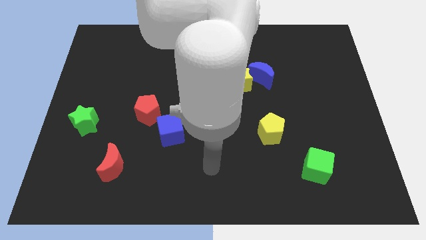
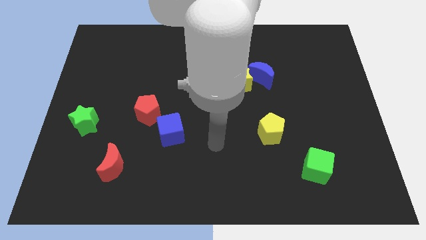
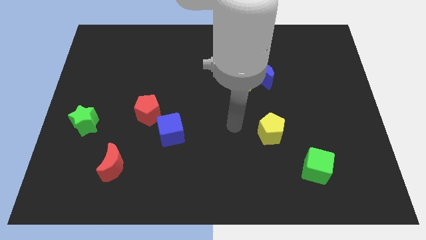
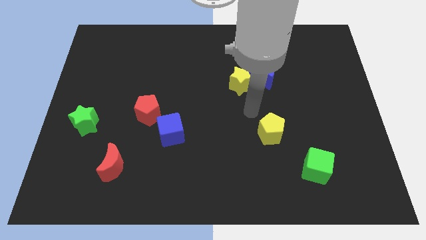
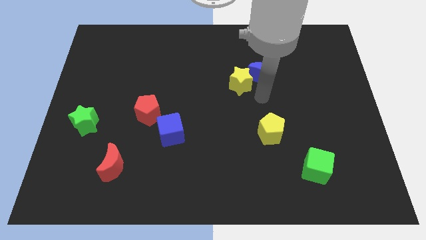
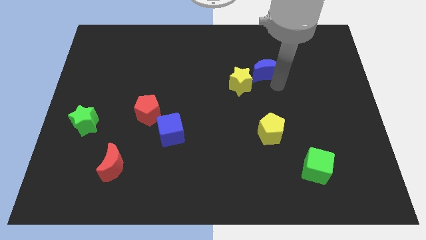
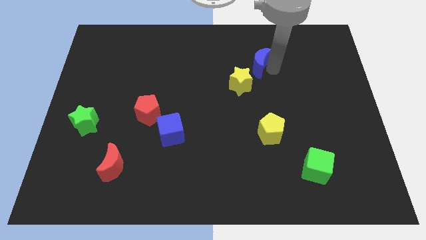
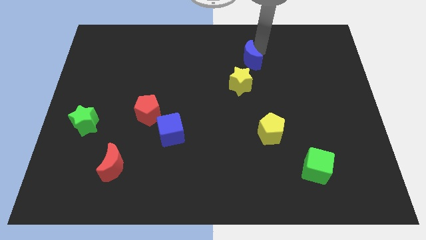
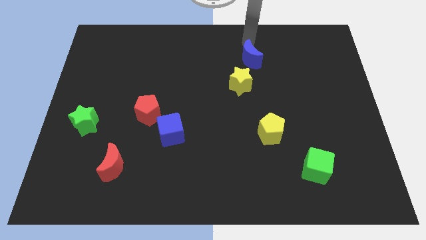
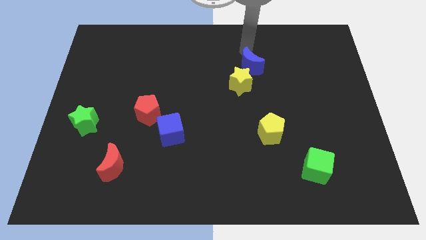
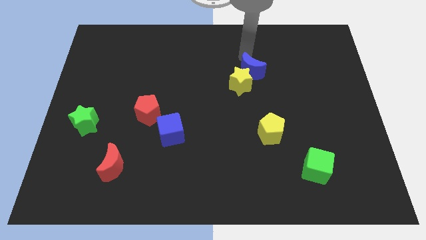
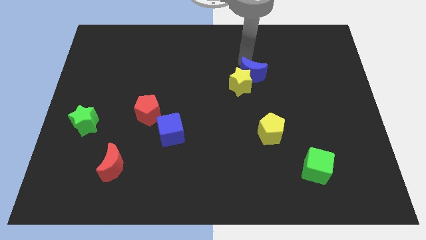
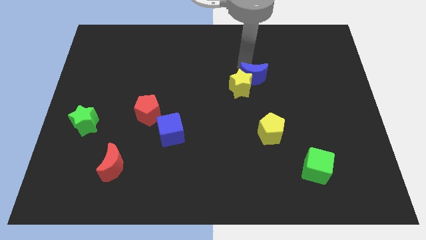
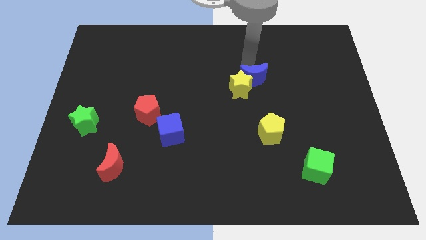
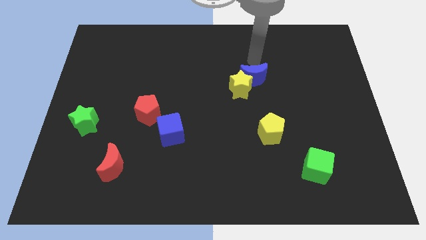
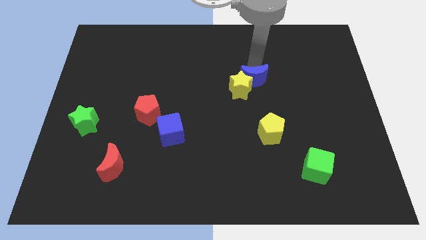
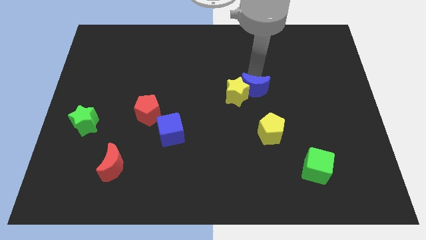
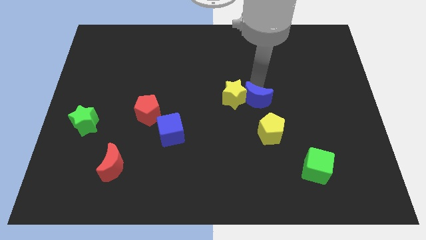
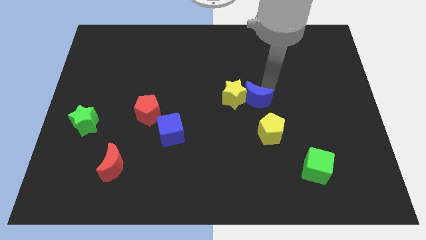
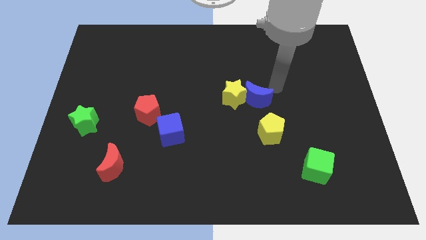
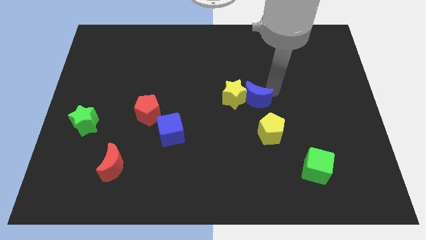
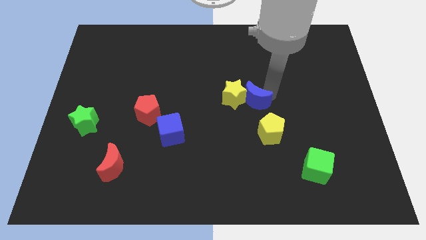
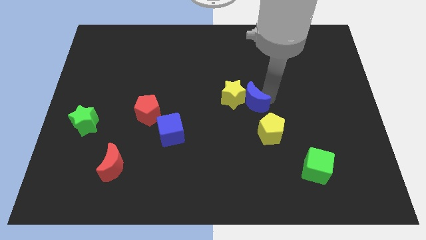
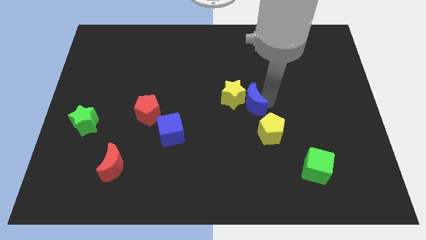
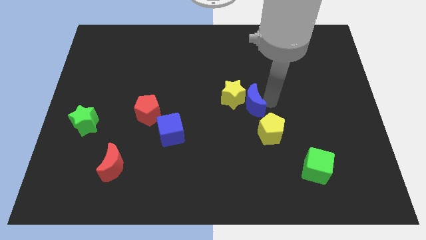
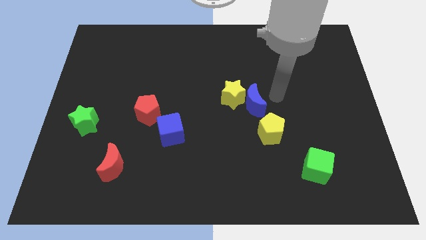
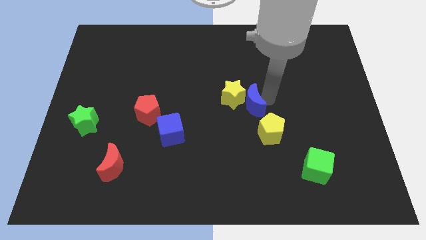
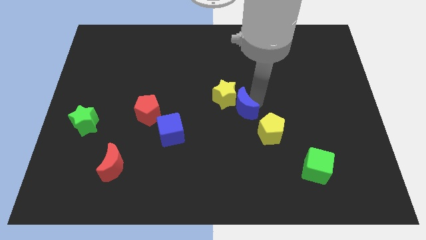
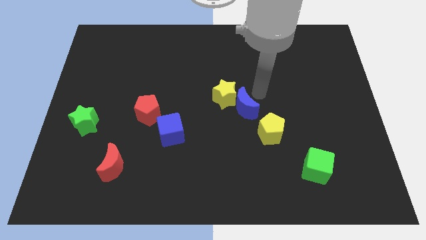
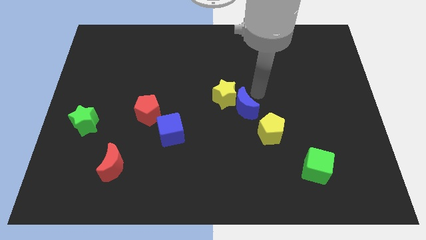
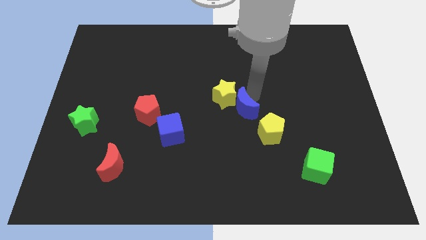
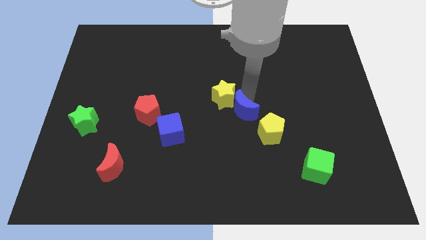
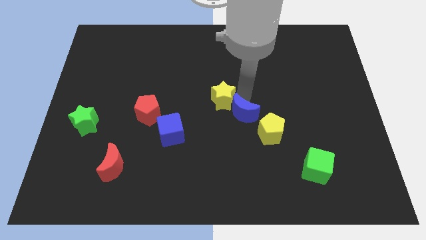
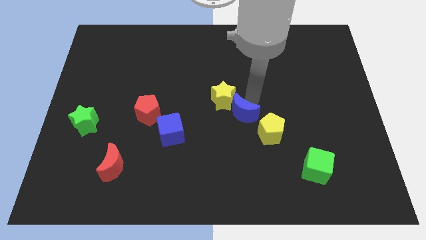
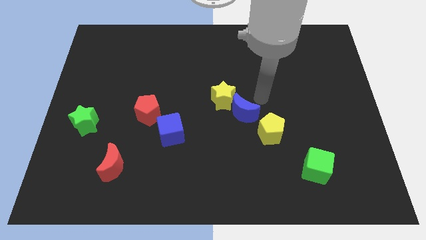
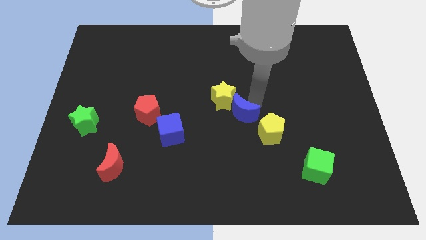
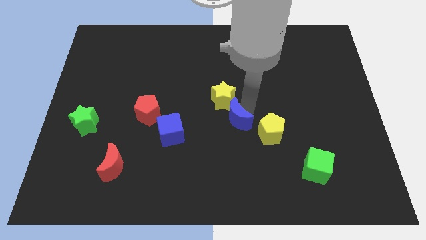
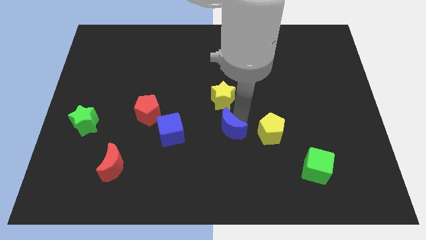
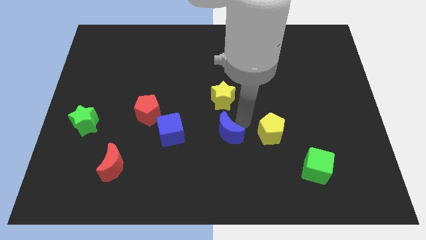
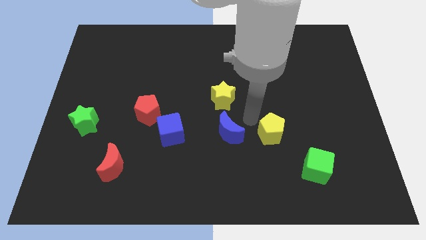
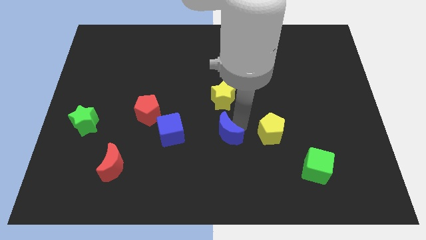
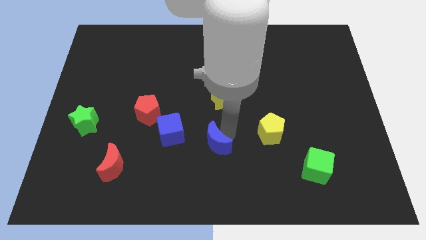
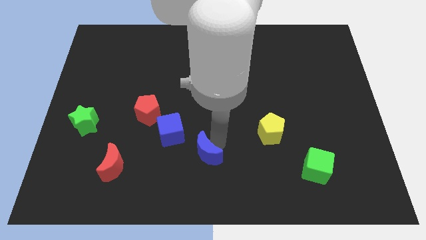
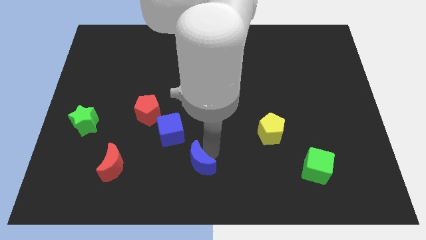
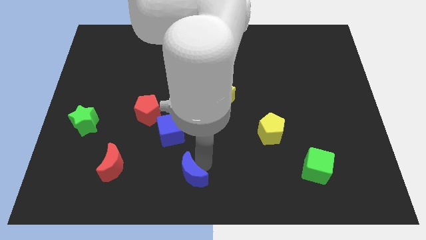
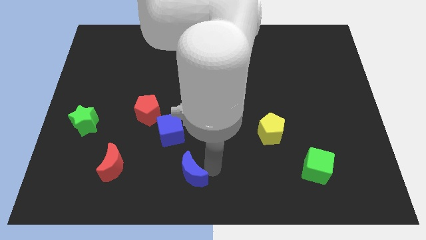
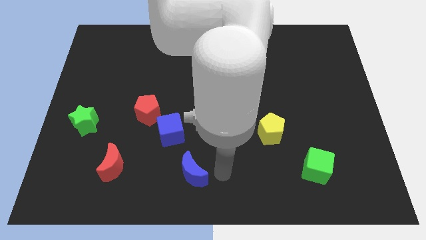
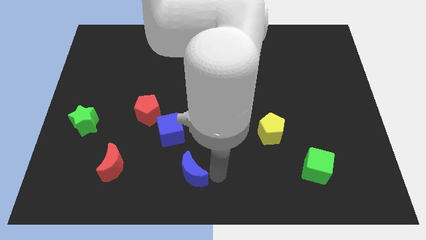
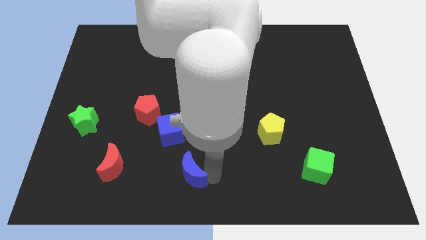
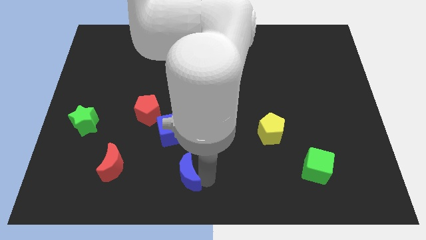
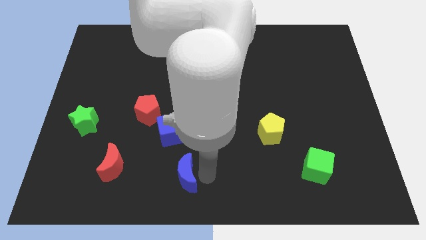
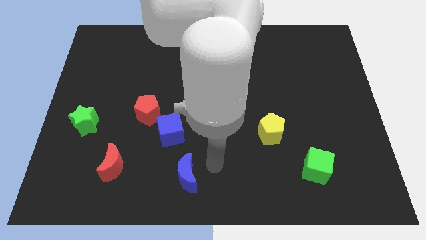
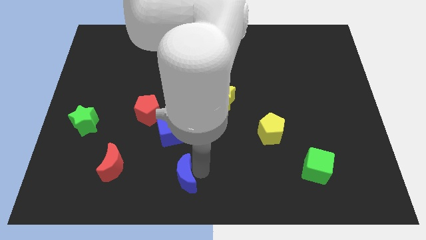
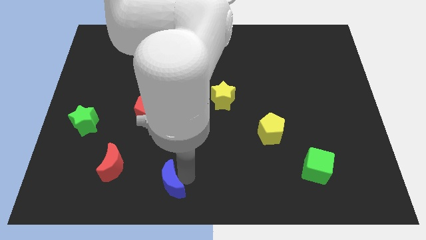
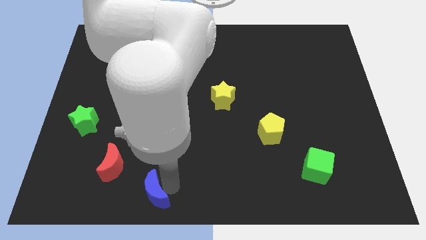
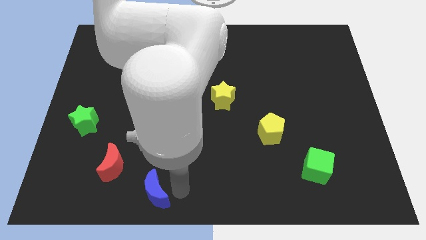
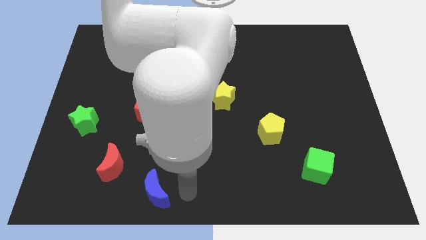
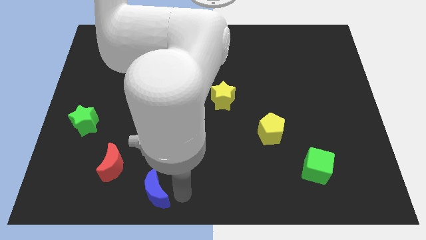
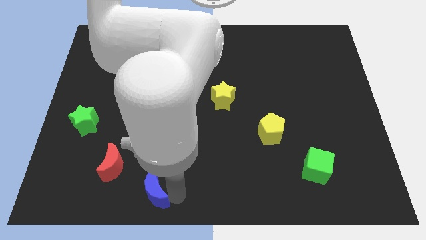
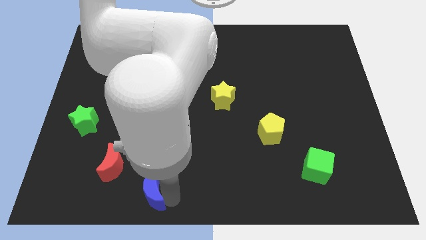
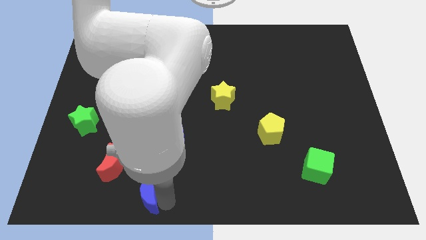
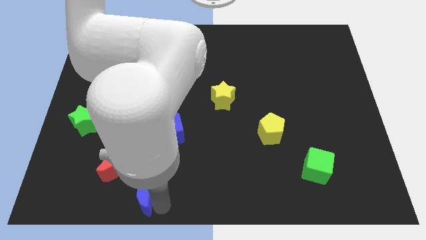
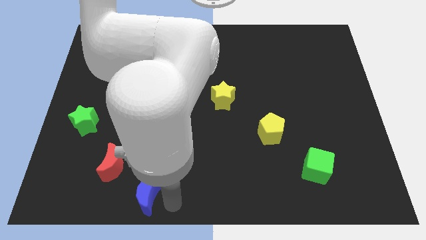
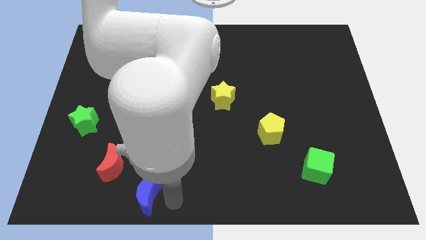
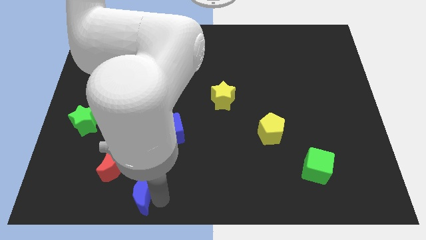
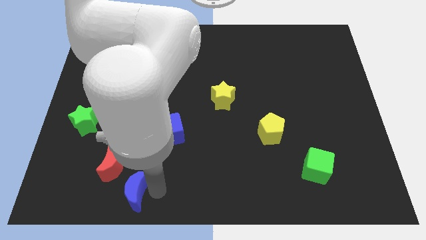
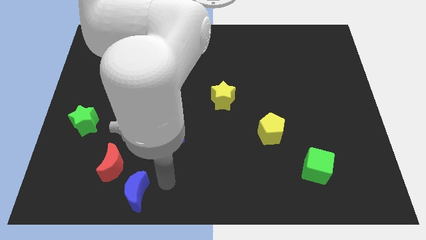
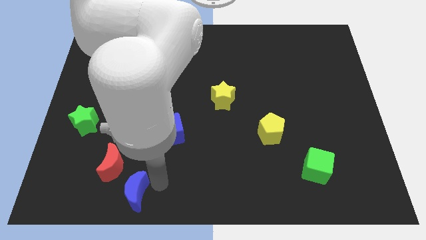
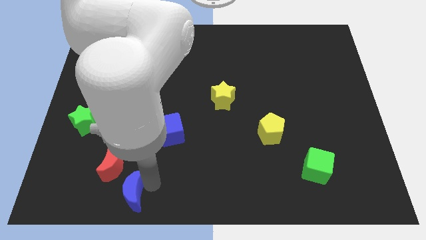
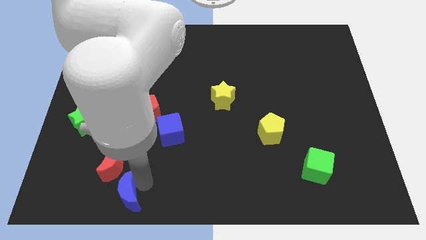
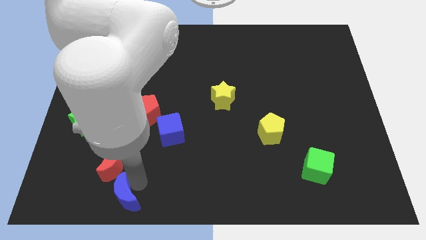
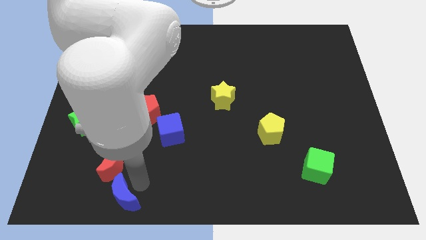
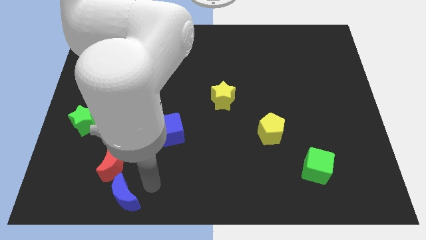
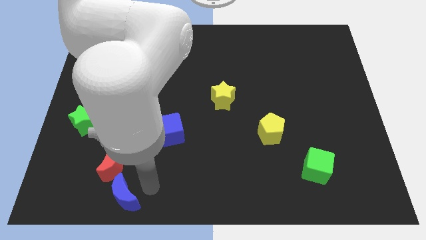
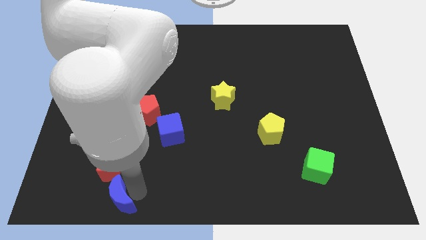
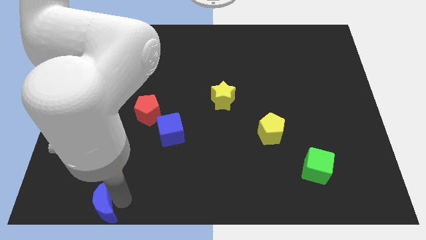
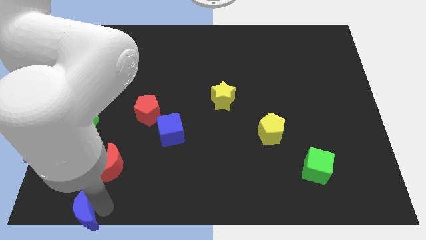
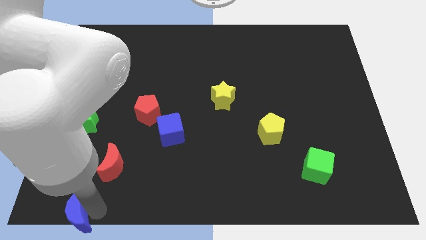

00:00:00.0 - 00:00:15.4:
push the blue moon to the bottom left

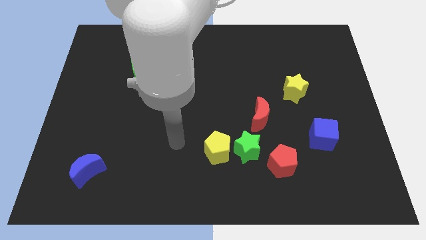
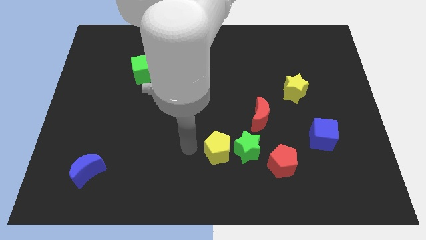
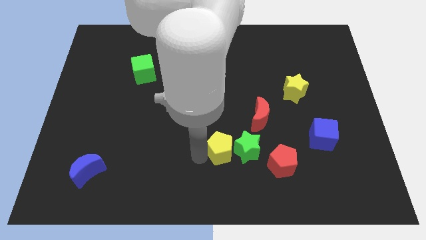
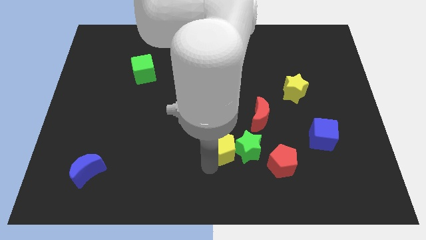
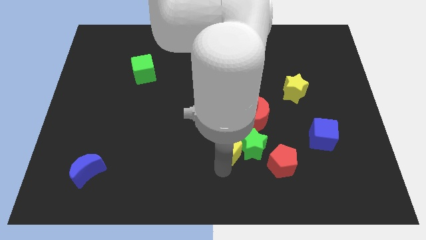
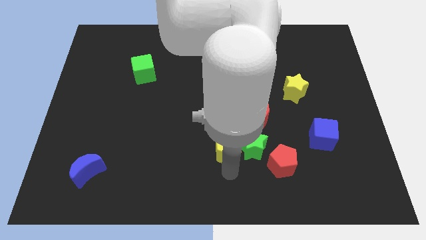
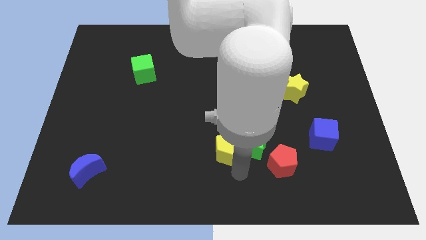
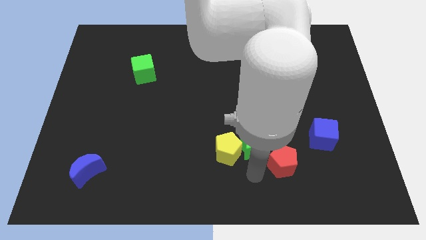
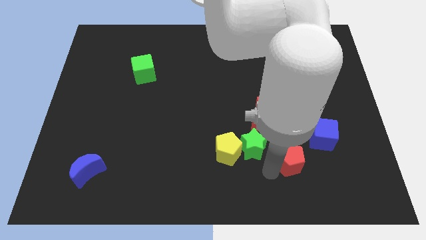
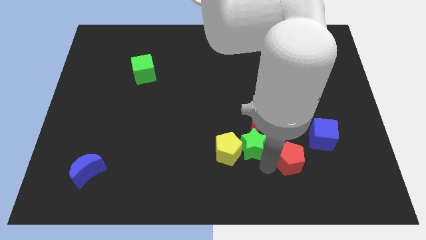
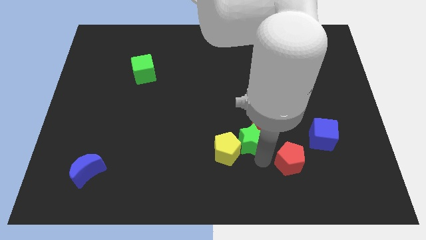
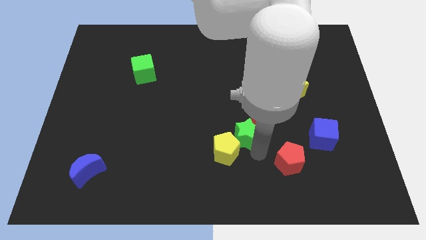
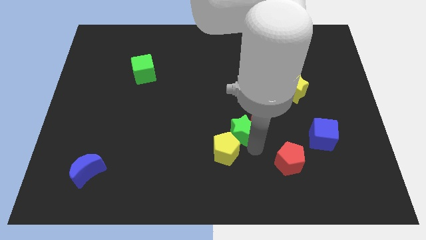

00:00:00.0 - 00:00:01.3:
move the green star to the middle of the board
